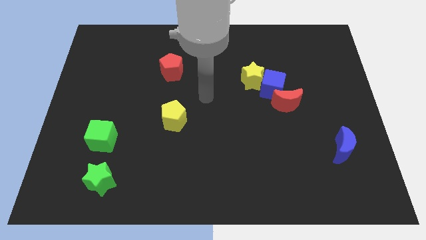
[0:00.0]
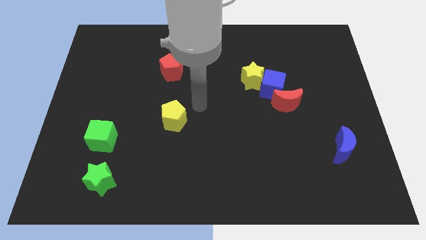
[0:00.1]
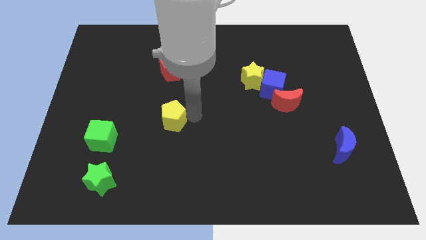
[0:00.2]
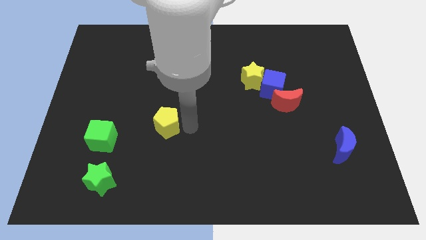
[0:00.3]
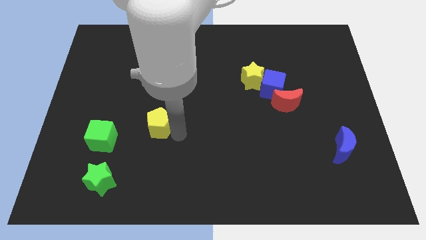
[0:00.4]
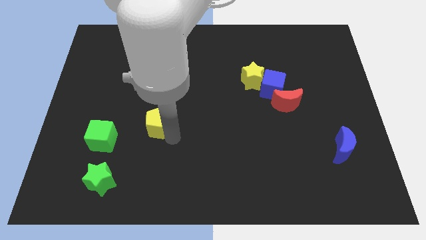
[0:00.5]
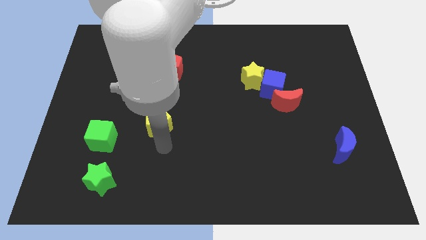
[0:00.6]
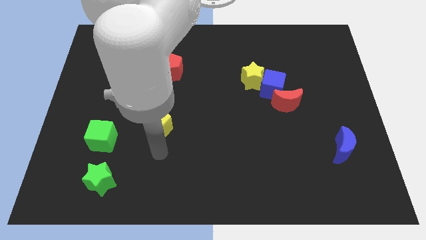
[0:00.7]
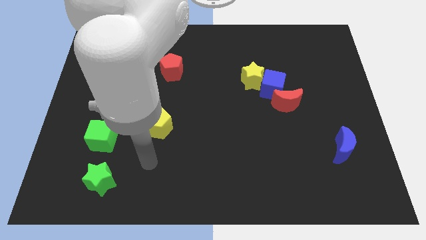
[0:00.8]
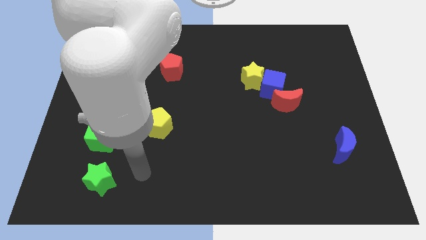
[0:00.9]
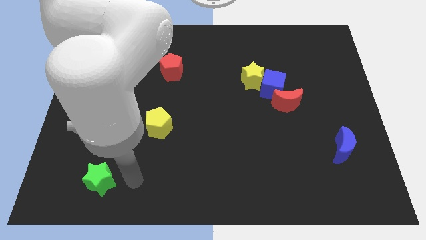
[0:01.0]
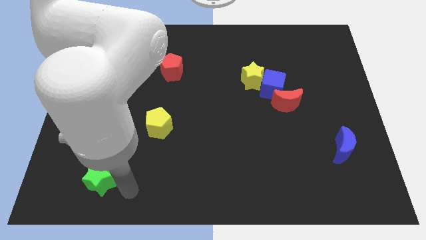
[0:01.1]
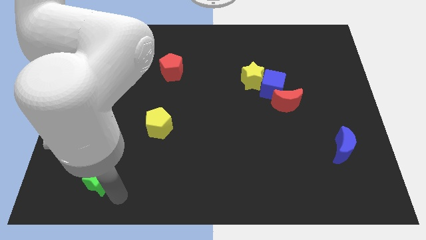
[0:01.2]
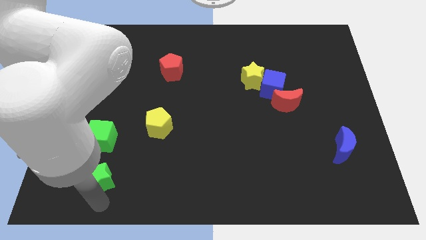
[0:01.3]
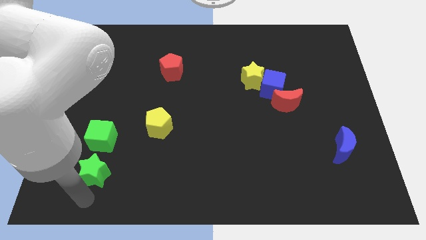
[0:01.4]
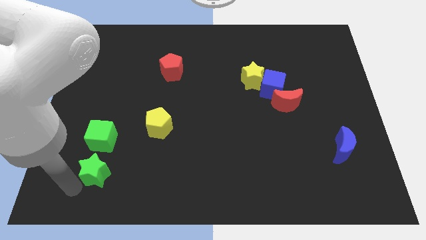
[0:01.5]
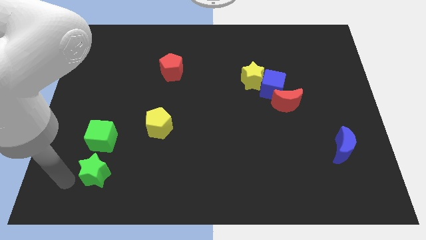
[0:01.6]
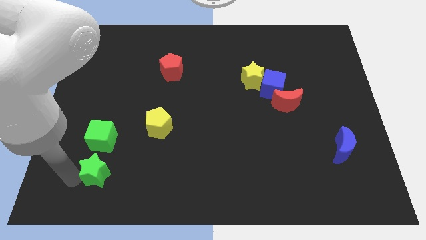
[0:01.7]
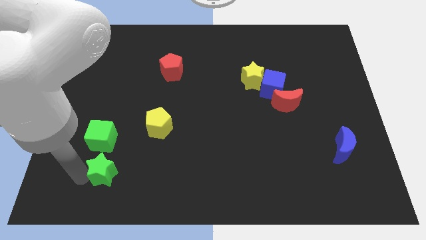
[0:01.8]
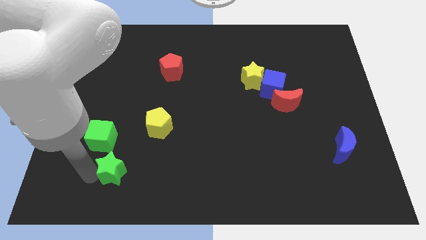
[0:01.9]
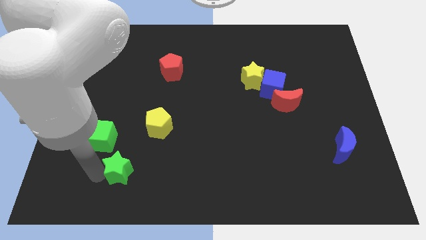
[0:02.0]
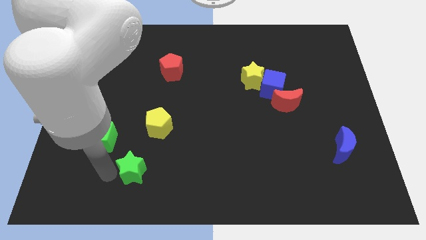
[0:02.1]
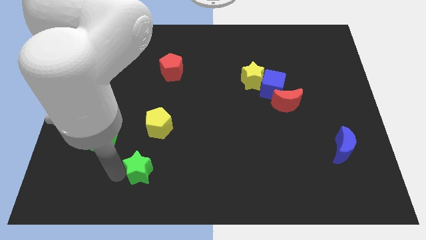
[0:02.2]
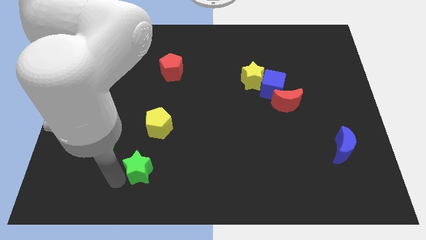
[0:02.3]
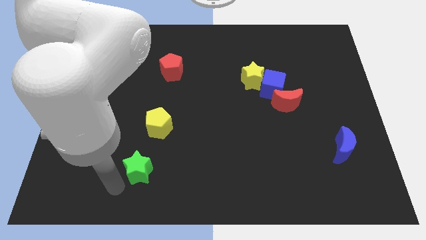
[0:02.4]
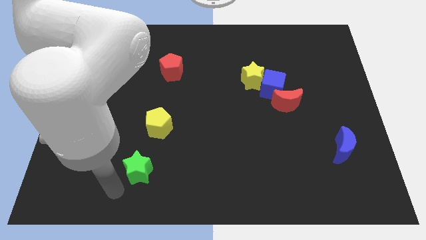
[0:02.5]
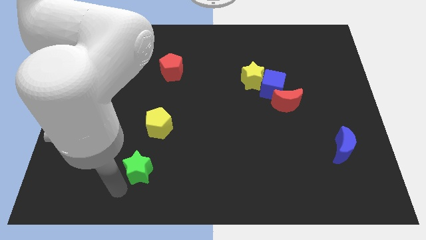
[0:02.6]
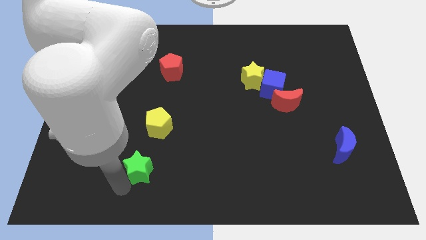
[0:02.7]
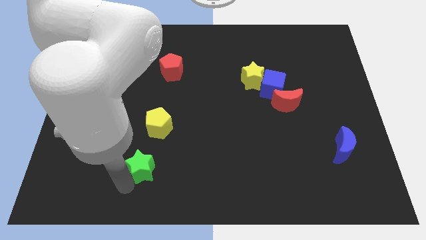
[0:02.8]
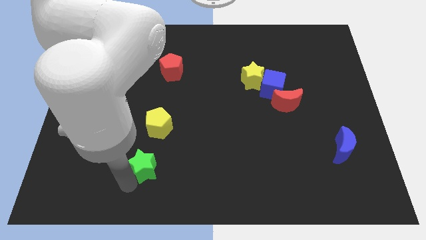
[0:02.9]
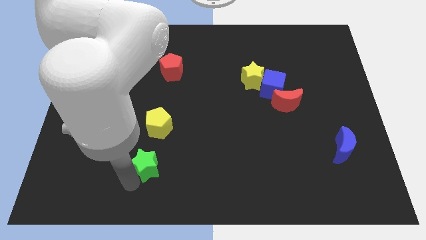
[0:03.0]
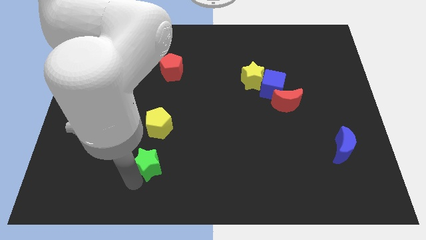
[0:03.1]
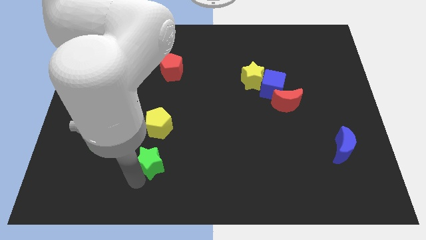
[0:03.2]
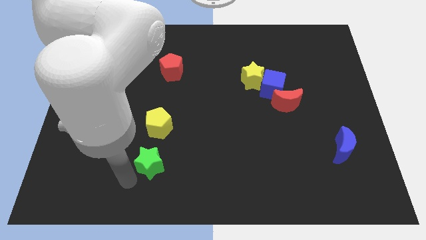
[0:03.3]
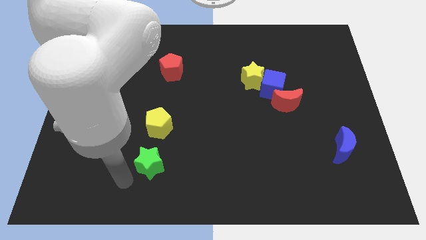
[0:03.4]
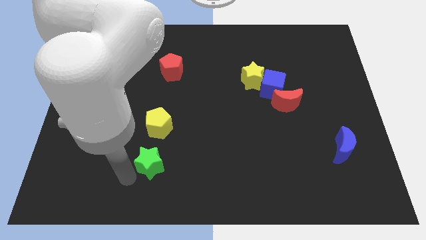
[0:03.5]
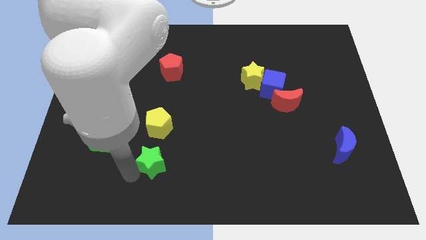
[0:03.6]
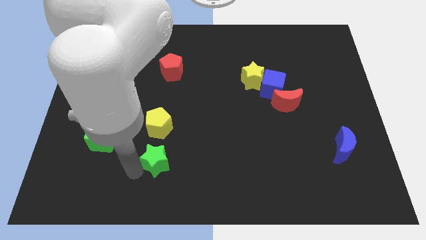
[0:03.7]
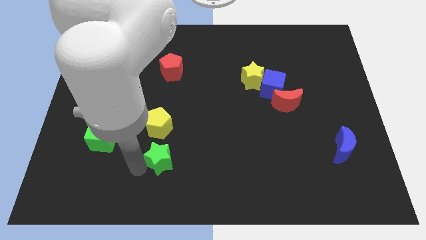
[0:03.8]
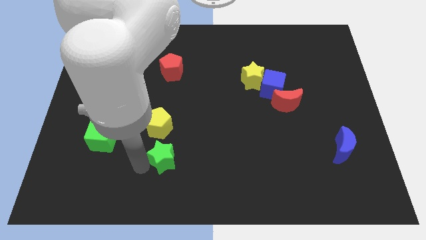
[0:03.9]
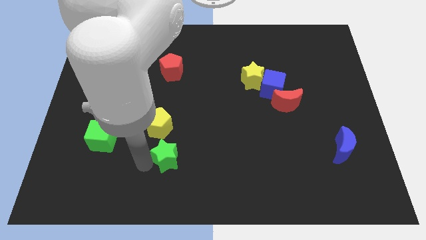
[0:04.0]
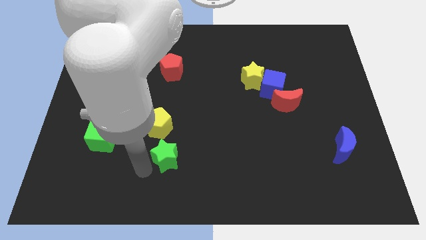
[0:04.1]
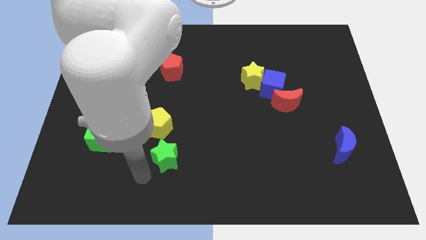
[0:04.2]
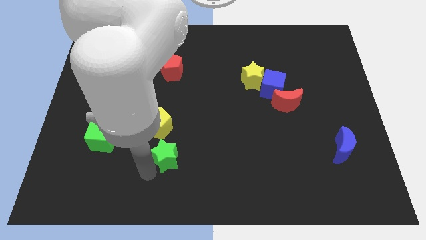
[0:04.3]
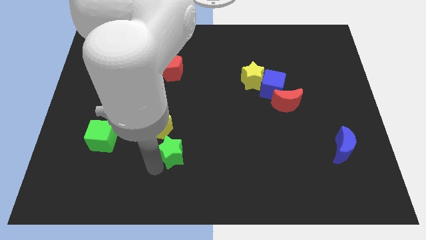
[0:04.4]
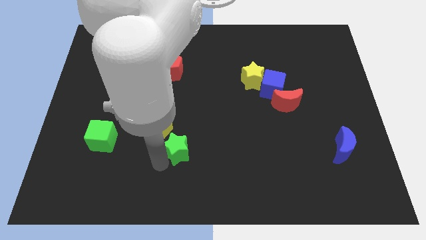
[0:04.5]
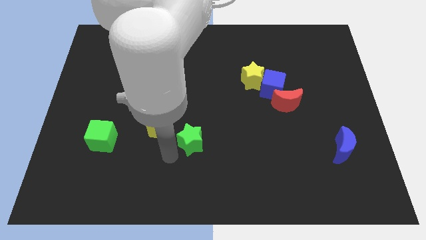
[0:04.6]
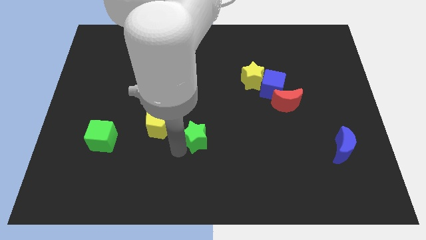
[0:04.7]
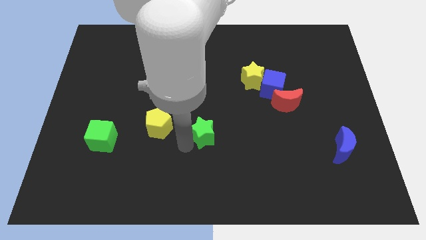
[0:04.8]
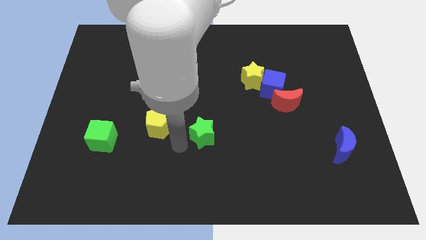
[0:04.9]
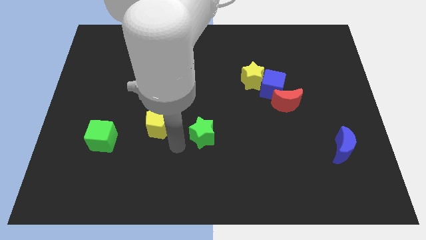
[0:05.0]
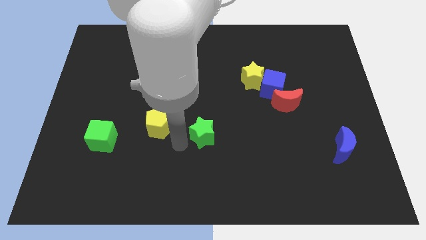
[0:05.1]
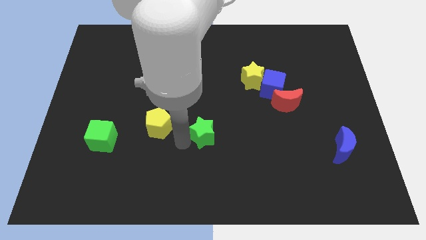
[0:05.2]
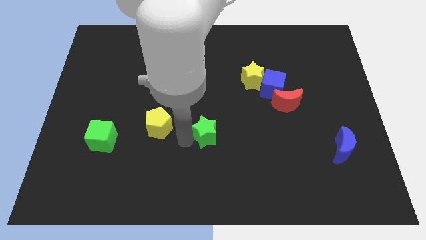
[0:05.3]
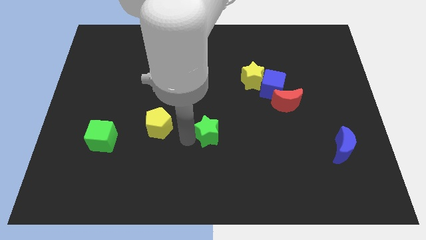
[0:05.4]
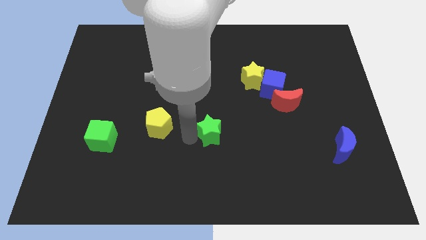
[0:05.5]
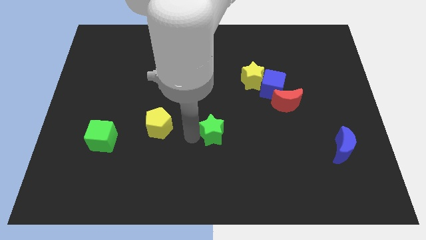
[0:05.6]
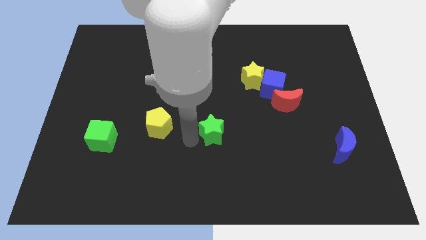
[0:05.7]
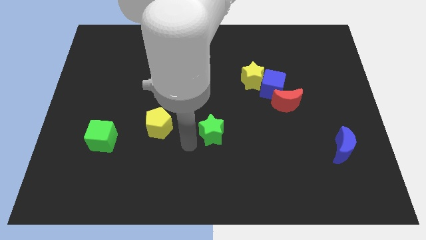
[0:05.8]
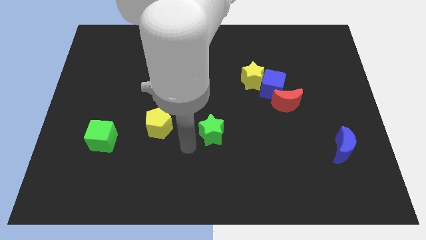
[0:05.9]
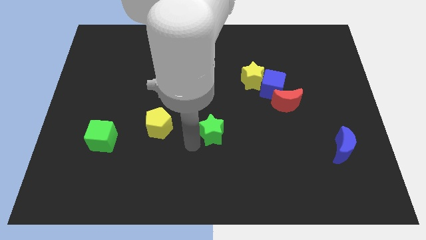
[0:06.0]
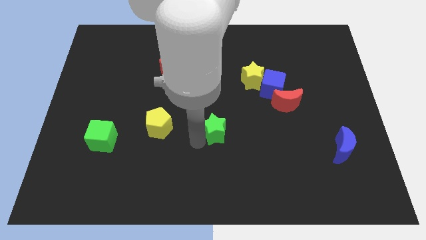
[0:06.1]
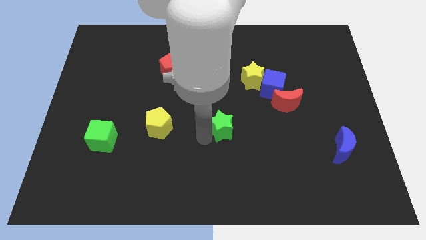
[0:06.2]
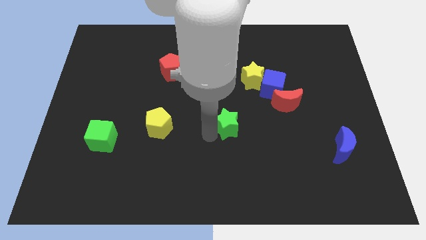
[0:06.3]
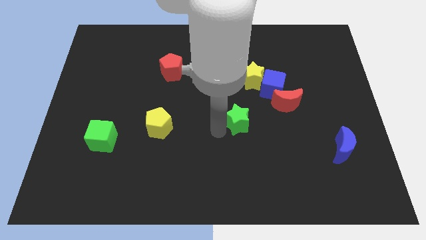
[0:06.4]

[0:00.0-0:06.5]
move the green star to the bottom of the yellow star

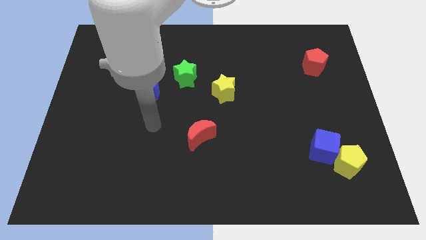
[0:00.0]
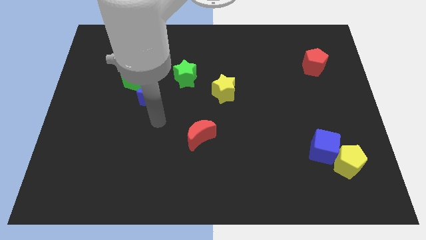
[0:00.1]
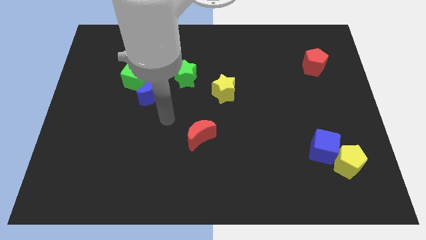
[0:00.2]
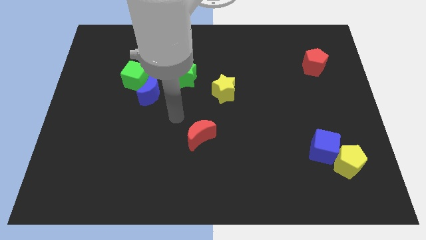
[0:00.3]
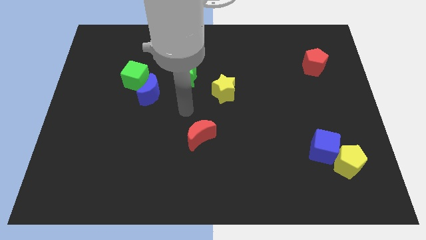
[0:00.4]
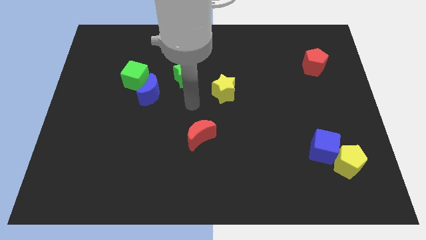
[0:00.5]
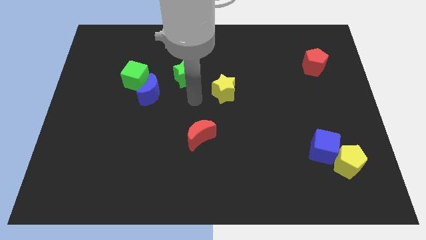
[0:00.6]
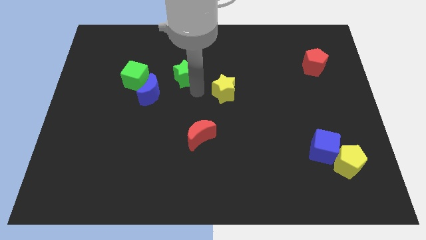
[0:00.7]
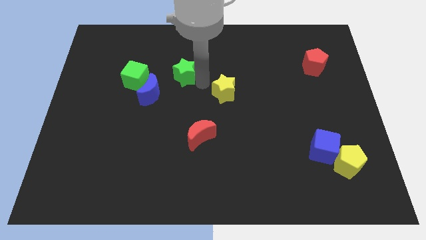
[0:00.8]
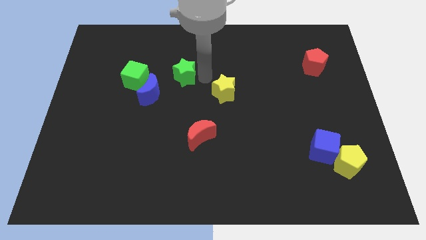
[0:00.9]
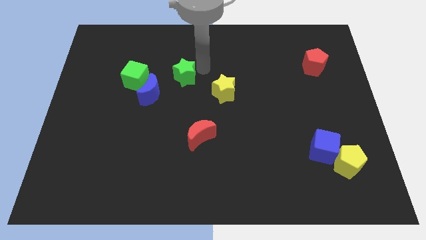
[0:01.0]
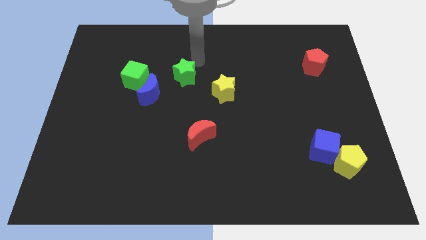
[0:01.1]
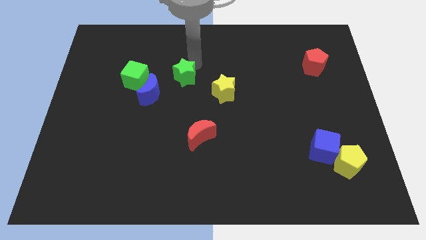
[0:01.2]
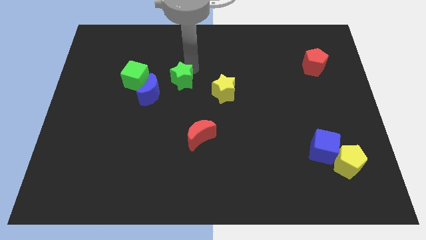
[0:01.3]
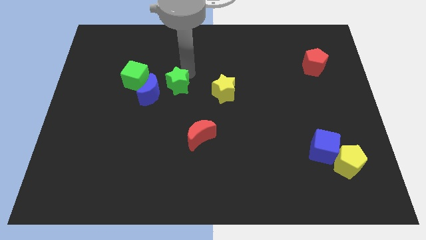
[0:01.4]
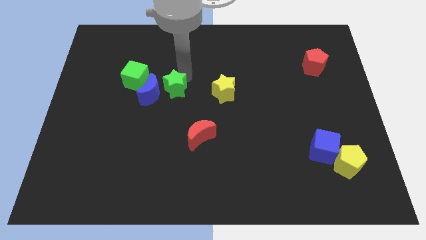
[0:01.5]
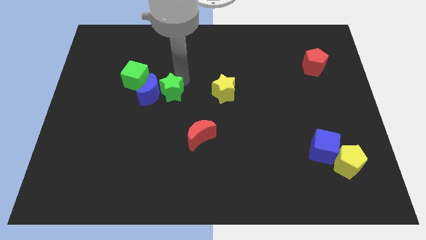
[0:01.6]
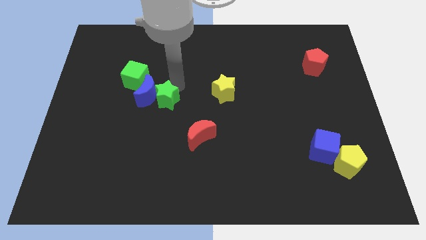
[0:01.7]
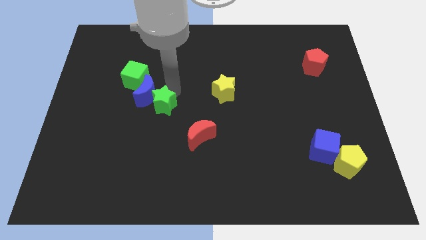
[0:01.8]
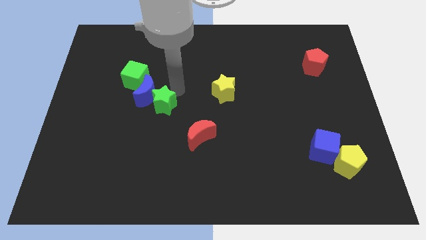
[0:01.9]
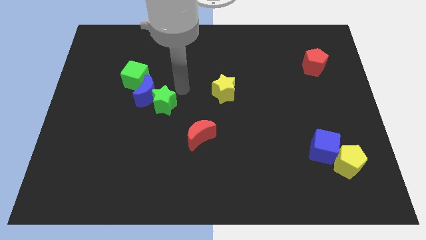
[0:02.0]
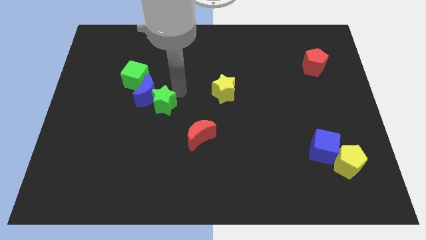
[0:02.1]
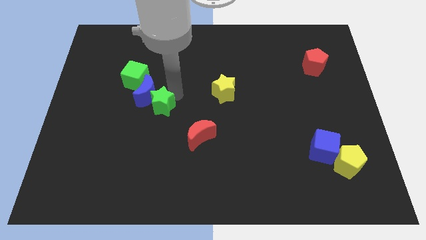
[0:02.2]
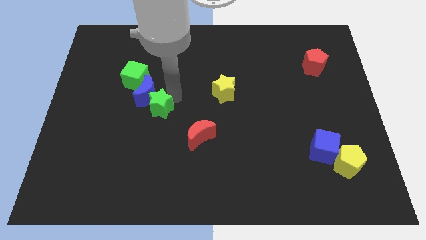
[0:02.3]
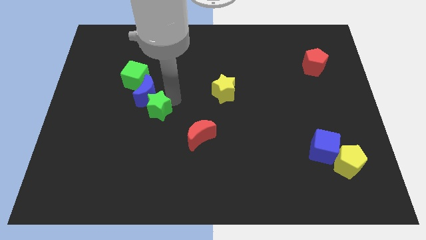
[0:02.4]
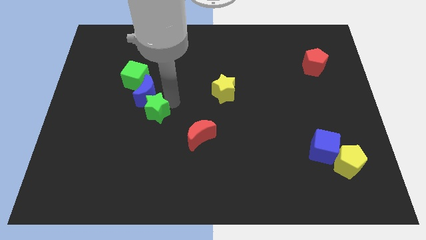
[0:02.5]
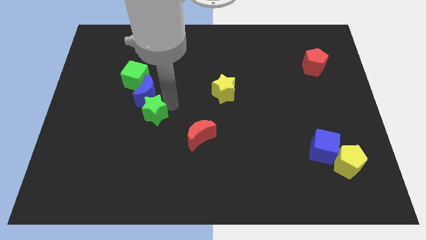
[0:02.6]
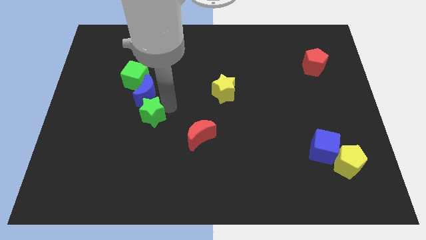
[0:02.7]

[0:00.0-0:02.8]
slide the green star below the green cube
